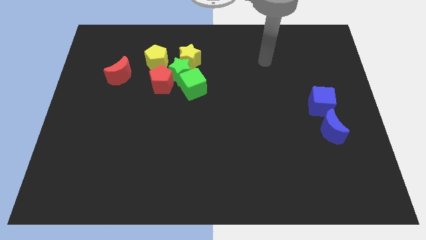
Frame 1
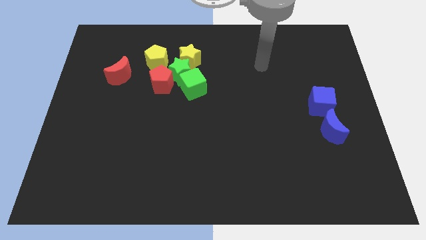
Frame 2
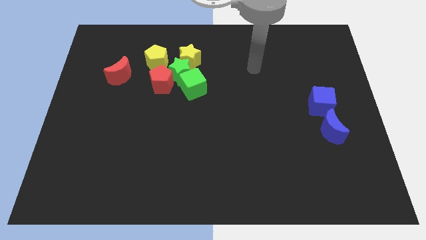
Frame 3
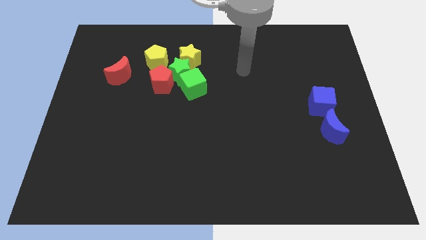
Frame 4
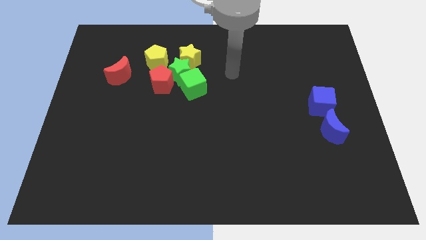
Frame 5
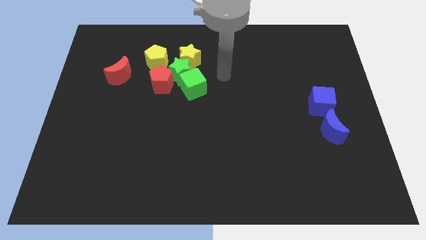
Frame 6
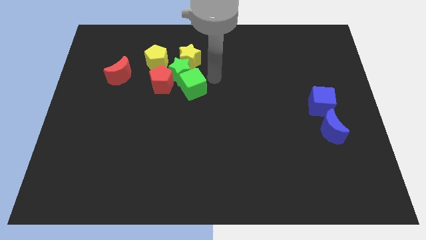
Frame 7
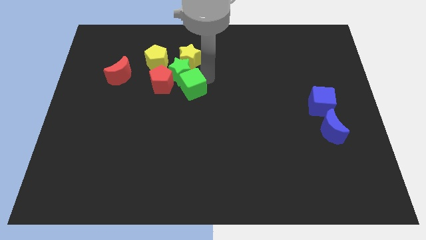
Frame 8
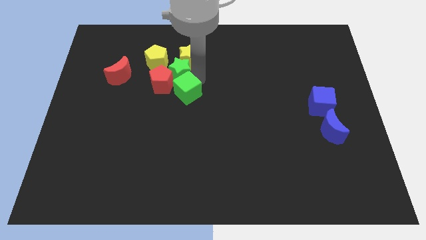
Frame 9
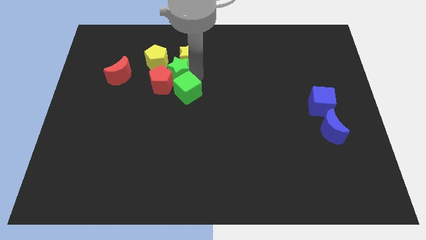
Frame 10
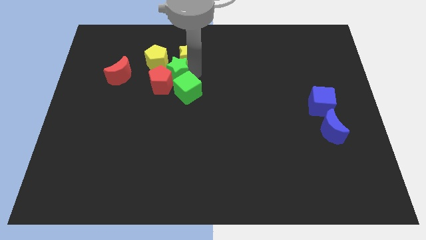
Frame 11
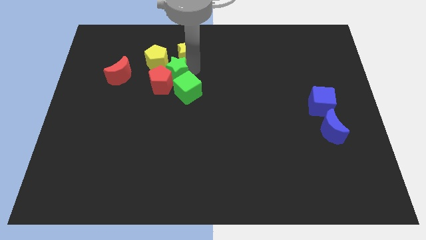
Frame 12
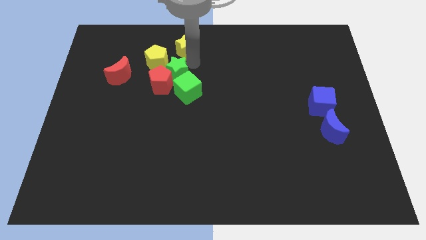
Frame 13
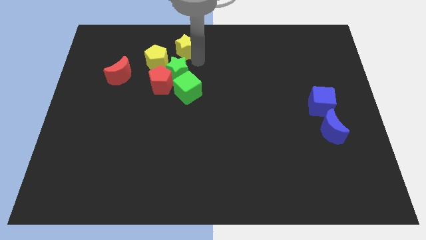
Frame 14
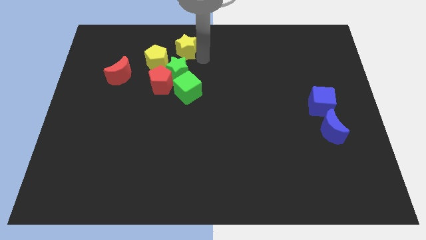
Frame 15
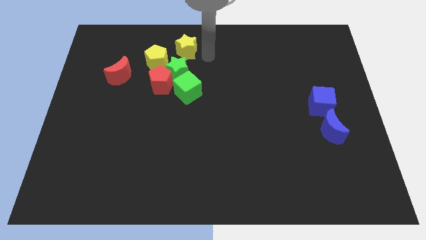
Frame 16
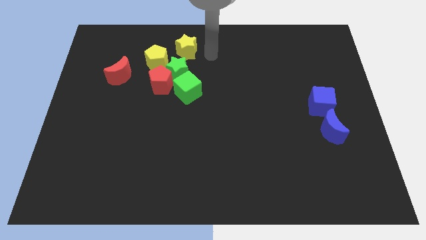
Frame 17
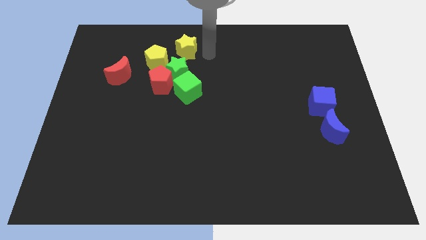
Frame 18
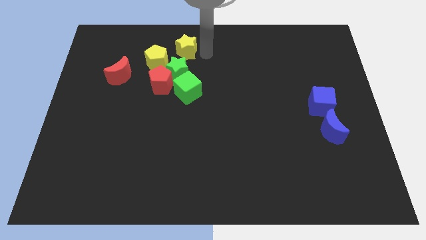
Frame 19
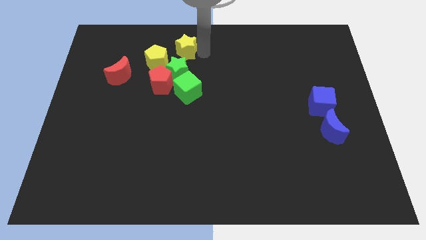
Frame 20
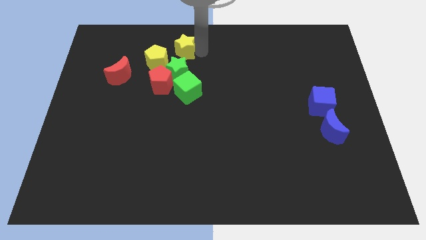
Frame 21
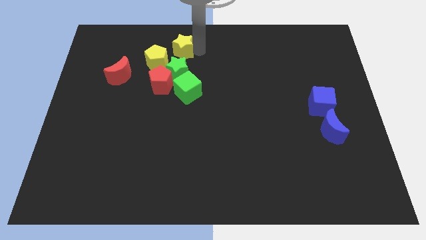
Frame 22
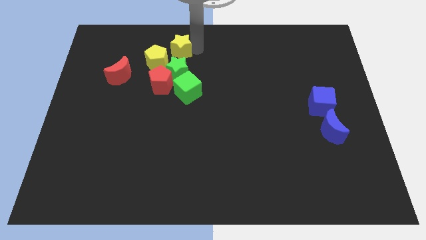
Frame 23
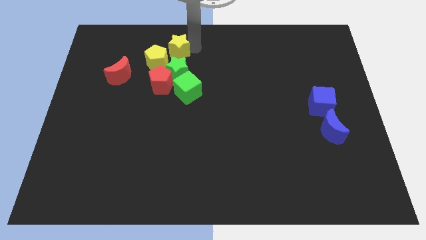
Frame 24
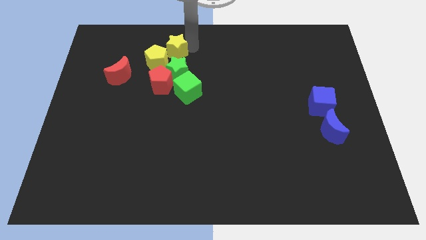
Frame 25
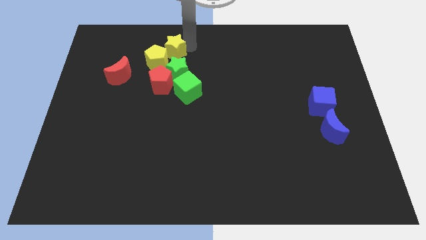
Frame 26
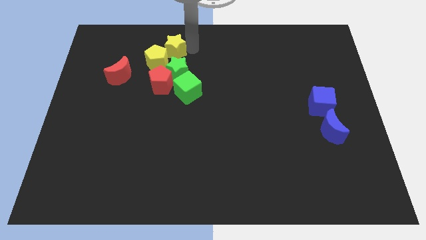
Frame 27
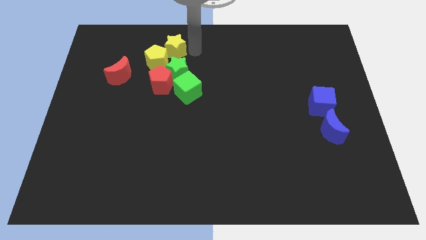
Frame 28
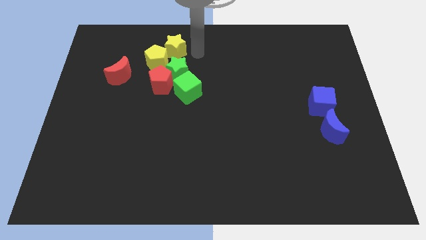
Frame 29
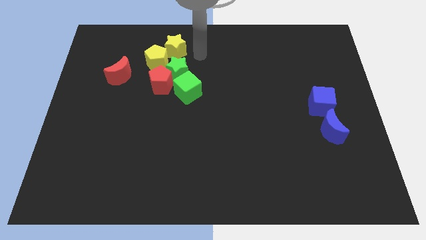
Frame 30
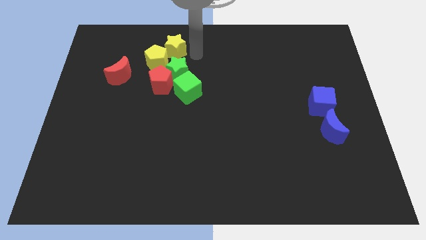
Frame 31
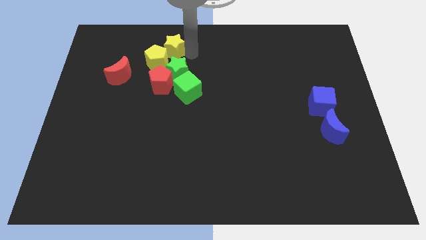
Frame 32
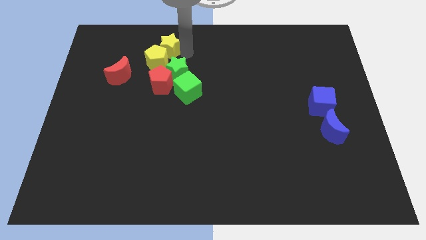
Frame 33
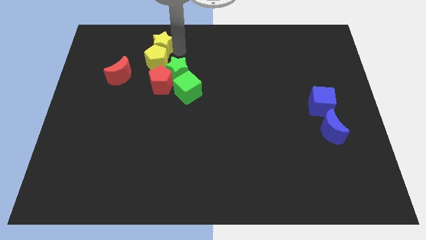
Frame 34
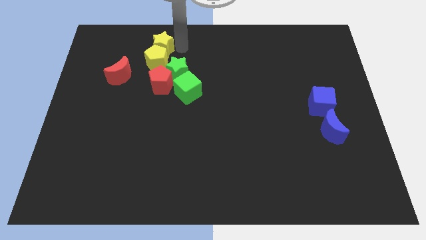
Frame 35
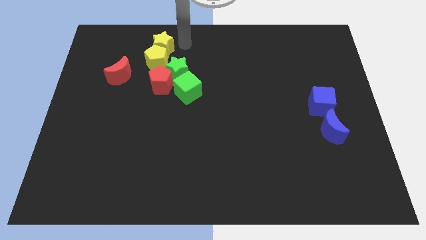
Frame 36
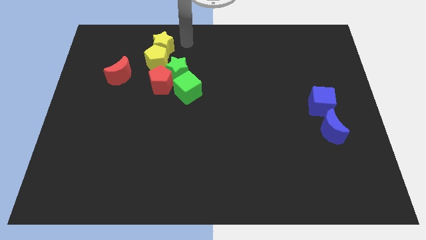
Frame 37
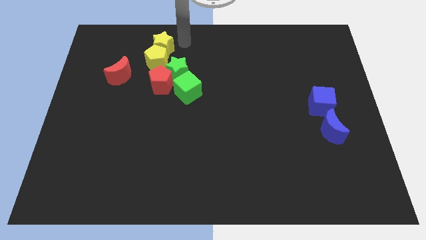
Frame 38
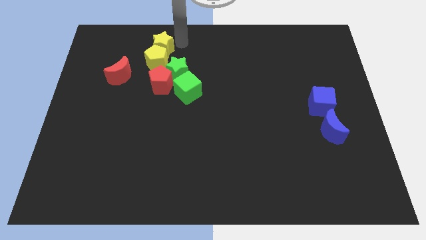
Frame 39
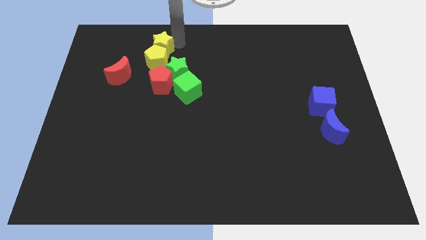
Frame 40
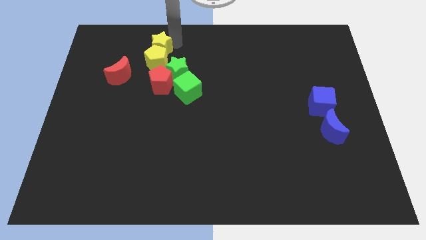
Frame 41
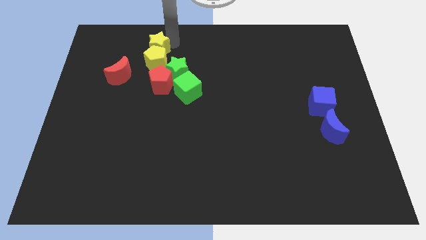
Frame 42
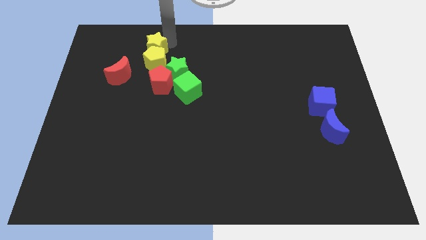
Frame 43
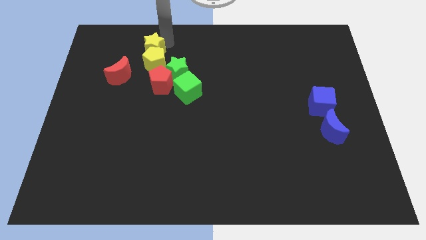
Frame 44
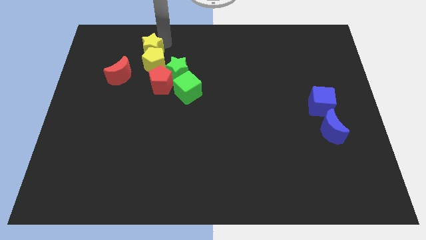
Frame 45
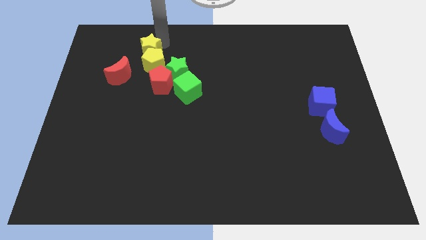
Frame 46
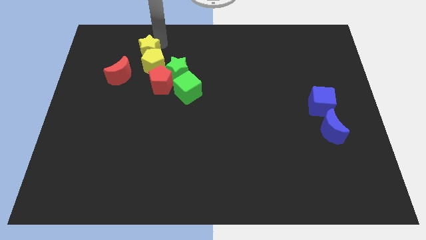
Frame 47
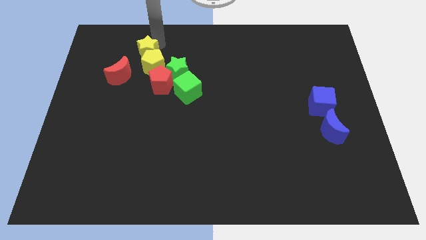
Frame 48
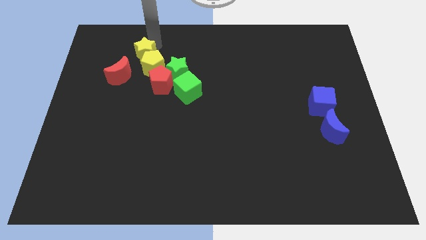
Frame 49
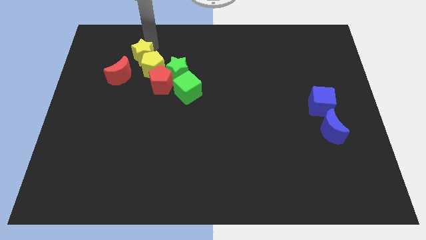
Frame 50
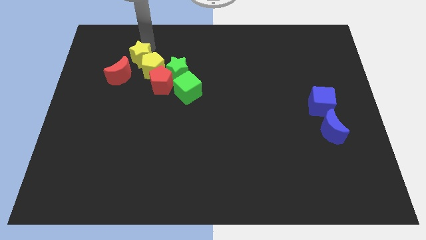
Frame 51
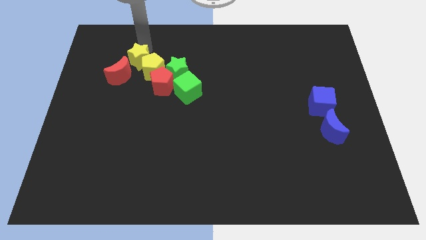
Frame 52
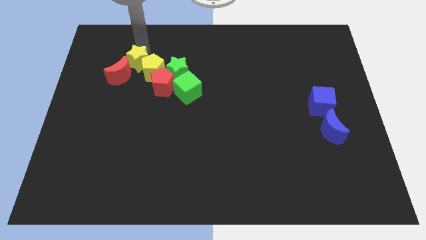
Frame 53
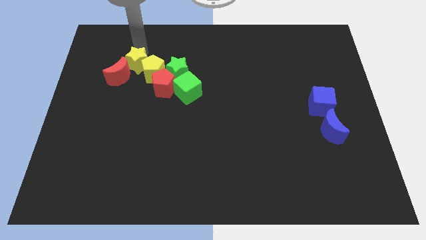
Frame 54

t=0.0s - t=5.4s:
put the yellow star towards the red moon

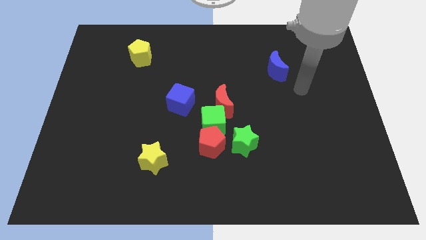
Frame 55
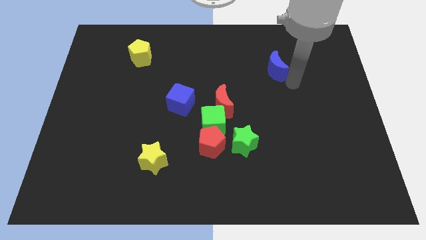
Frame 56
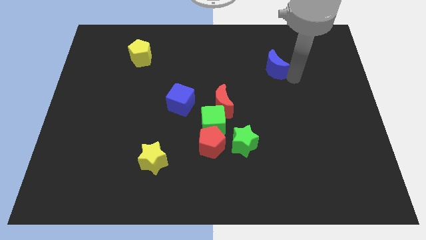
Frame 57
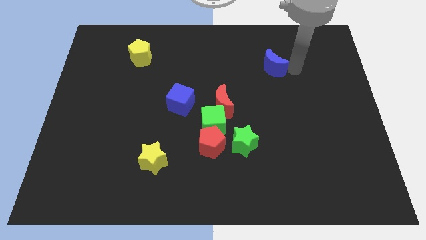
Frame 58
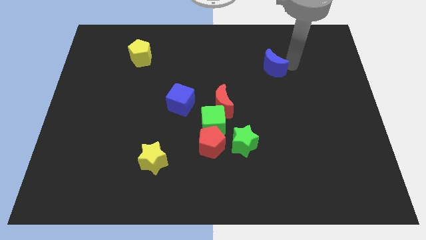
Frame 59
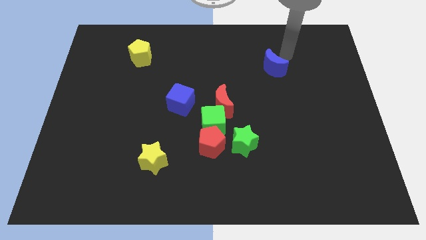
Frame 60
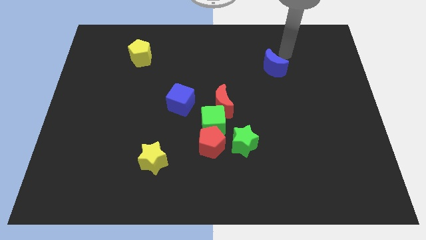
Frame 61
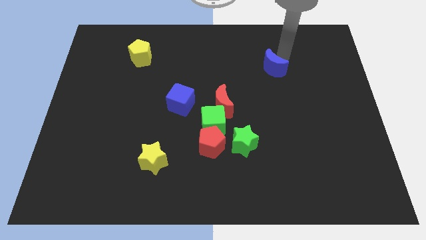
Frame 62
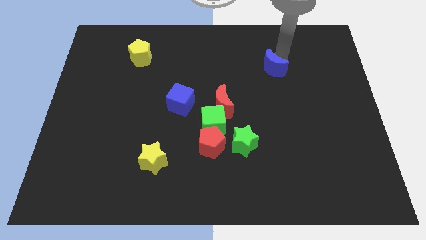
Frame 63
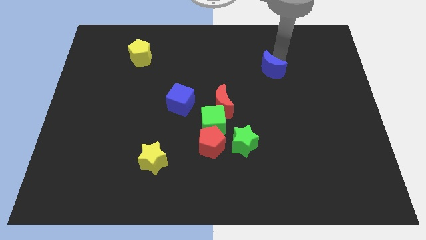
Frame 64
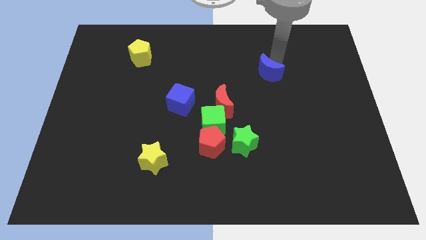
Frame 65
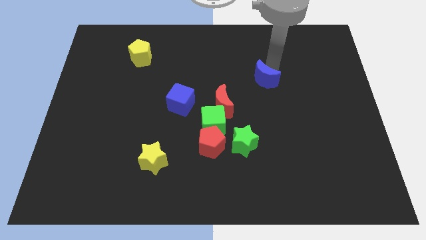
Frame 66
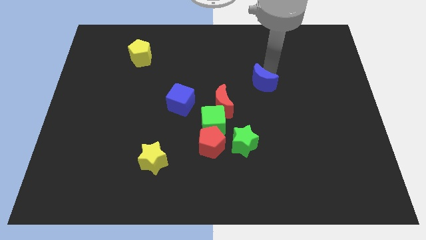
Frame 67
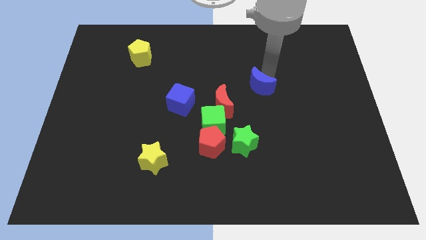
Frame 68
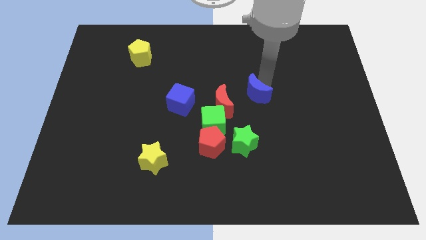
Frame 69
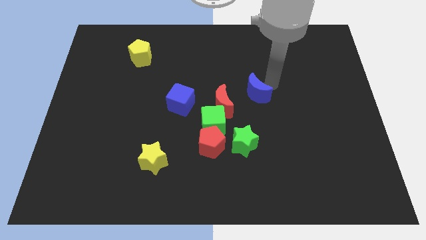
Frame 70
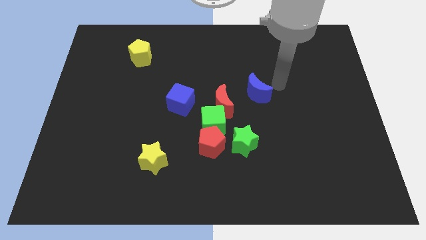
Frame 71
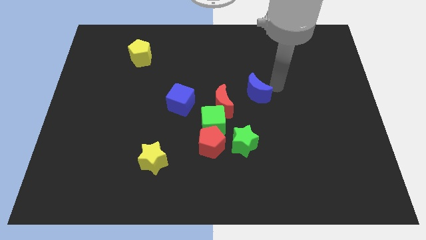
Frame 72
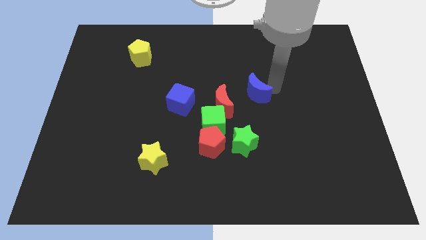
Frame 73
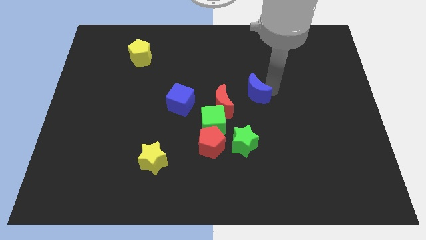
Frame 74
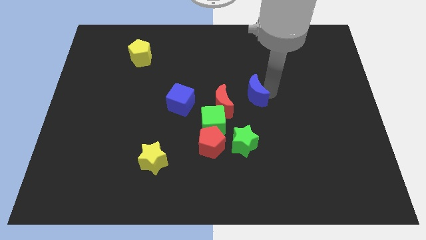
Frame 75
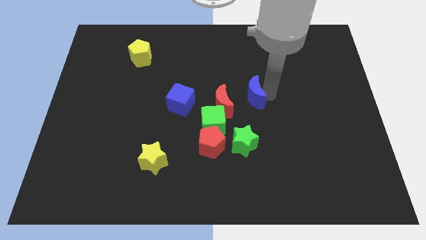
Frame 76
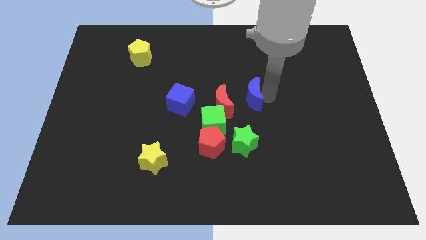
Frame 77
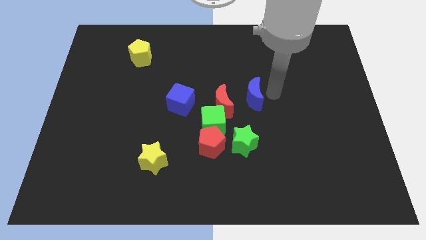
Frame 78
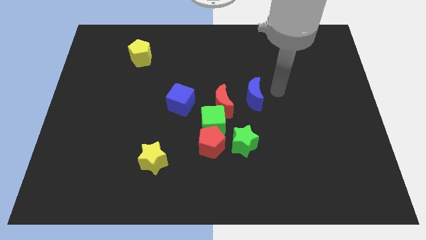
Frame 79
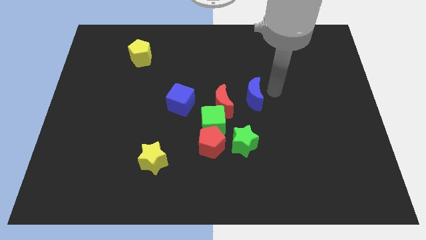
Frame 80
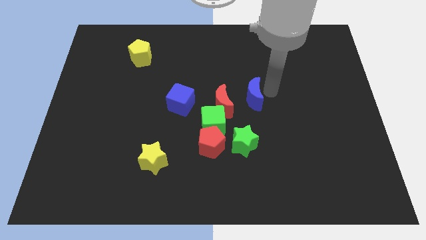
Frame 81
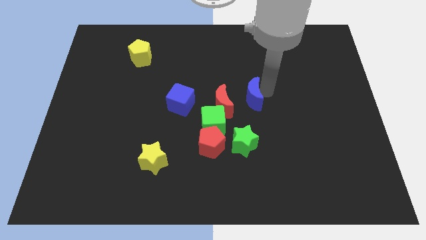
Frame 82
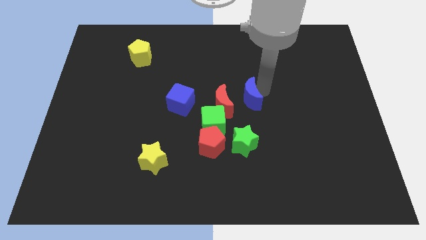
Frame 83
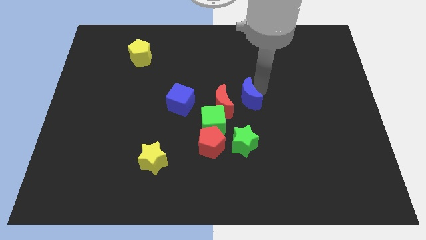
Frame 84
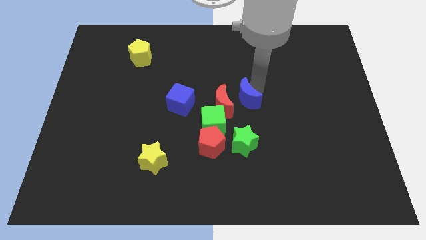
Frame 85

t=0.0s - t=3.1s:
move the blue moon close to the red moon
